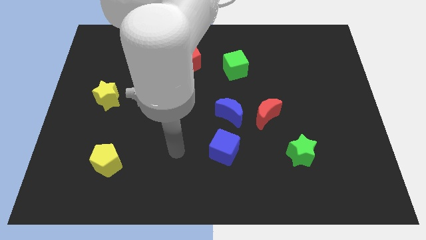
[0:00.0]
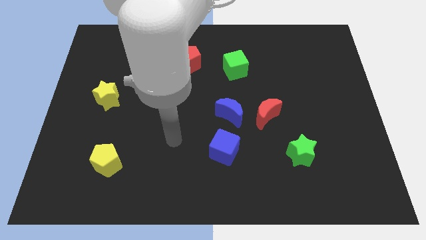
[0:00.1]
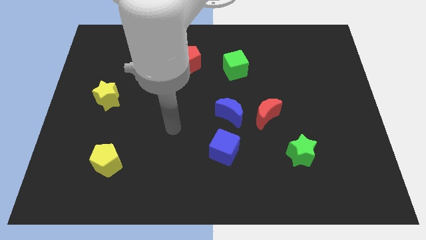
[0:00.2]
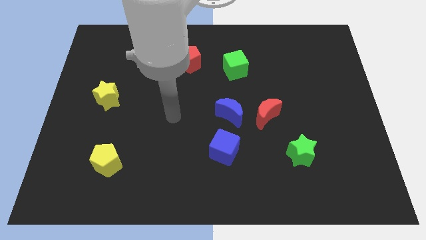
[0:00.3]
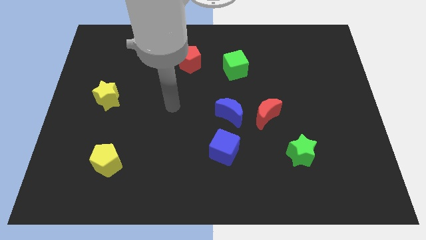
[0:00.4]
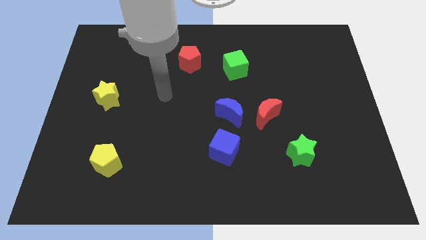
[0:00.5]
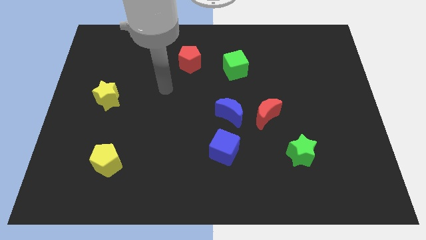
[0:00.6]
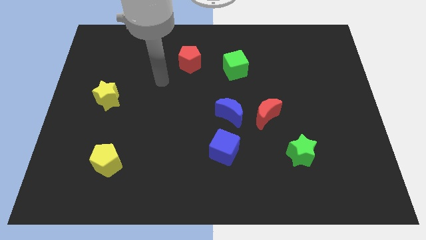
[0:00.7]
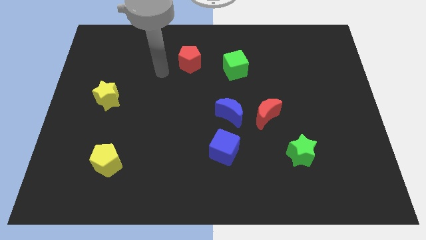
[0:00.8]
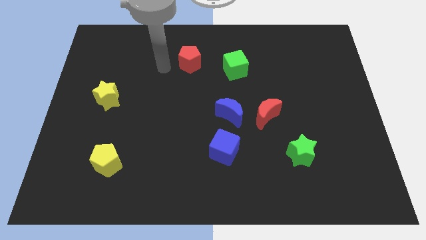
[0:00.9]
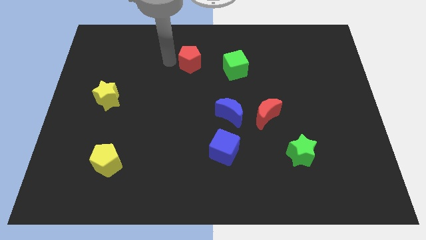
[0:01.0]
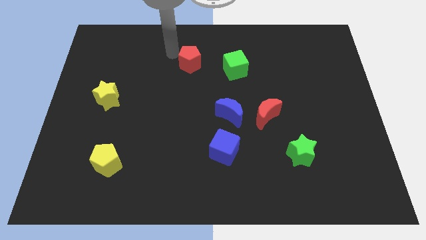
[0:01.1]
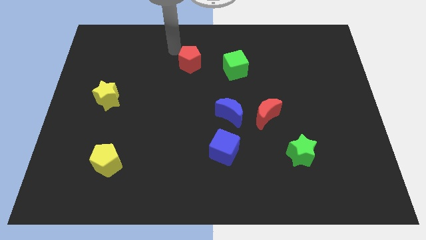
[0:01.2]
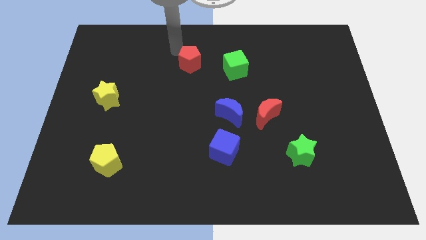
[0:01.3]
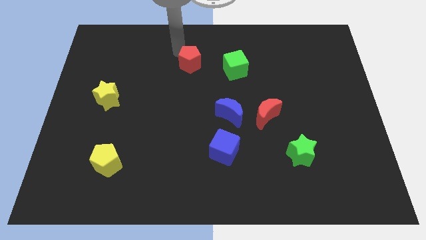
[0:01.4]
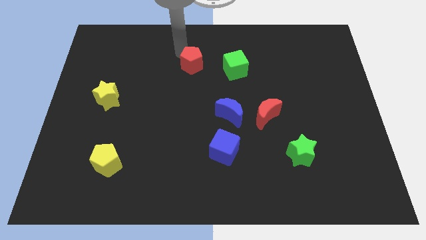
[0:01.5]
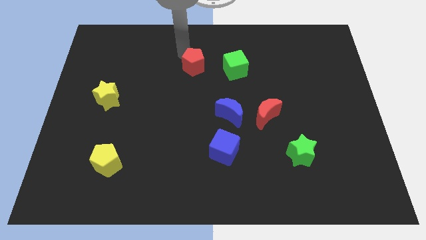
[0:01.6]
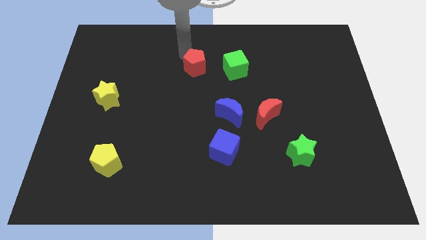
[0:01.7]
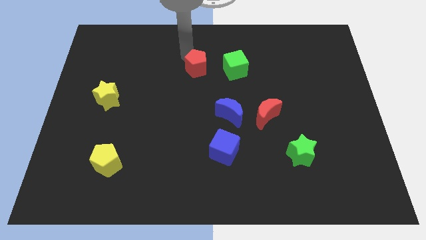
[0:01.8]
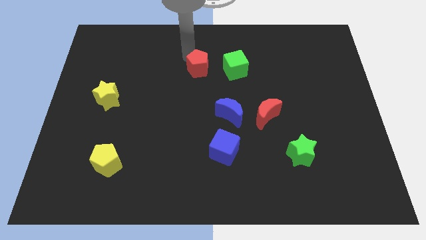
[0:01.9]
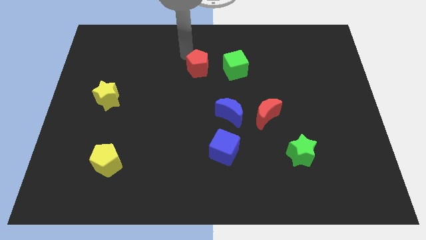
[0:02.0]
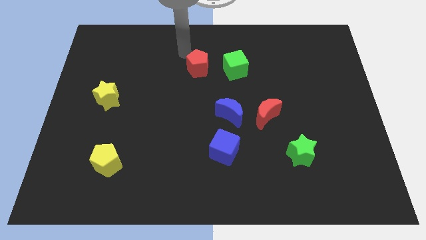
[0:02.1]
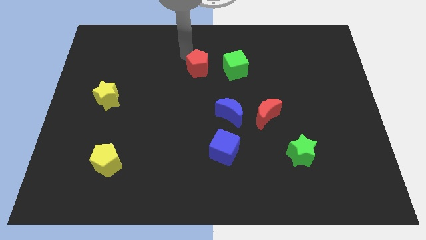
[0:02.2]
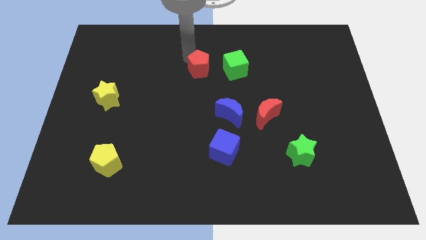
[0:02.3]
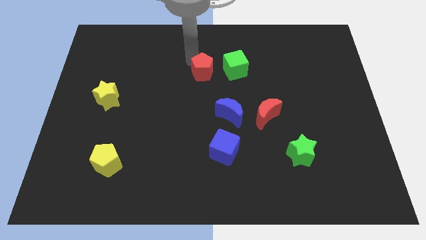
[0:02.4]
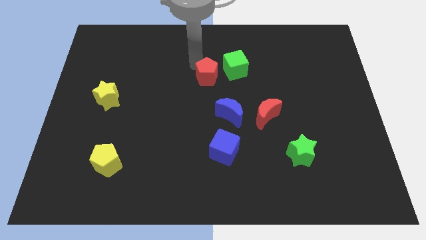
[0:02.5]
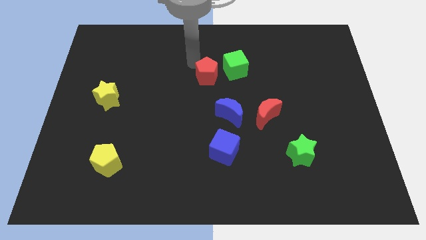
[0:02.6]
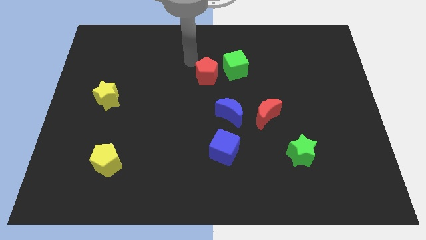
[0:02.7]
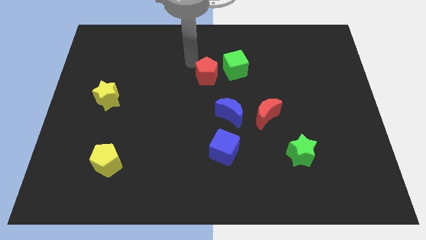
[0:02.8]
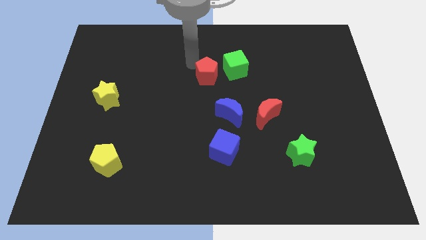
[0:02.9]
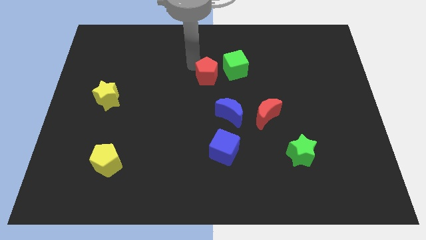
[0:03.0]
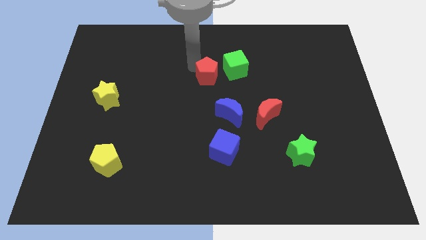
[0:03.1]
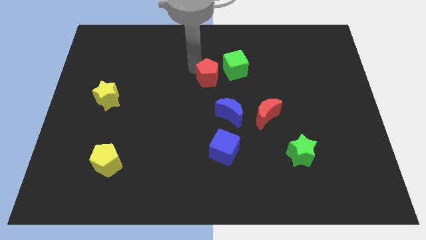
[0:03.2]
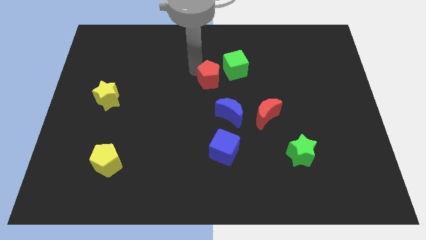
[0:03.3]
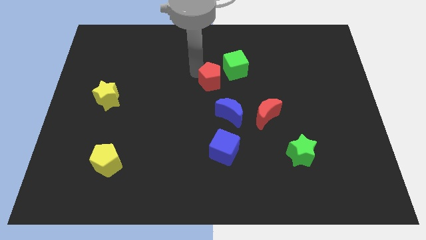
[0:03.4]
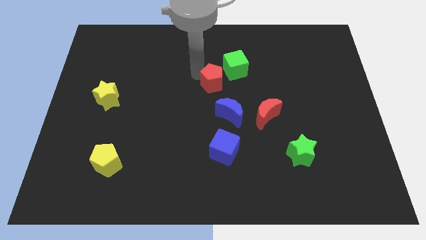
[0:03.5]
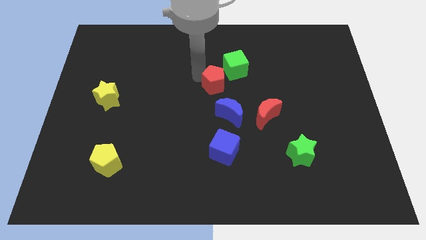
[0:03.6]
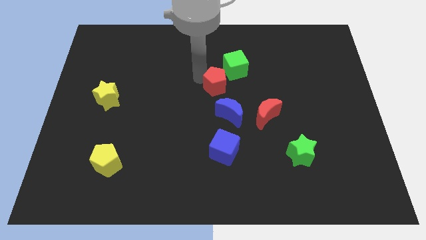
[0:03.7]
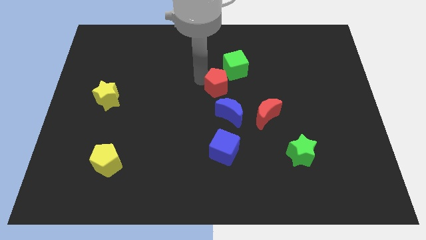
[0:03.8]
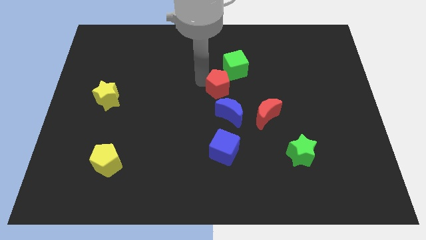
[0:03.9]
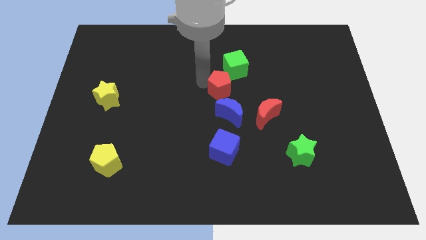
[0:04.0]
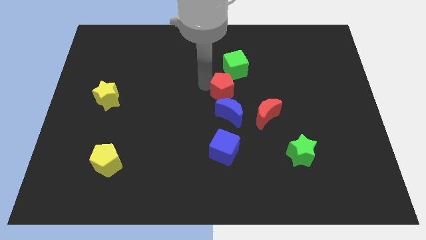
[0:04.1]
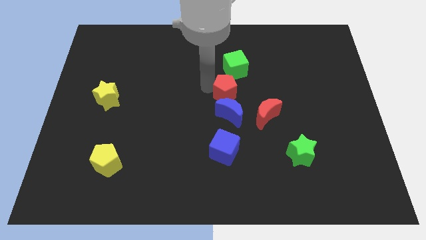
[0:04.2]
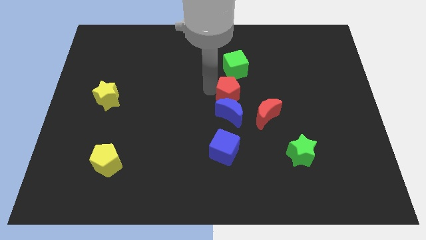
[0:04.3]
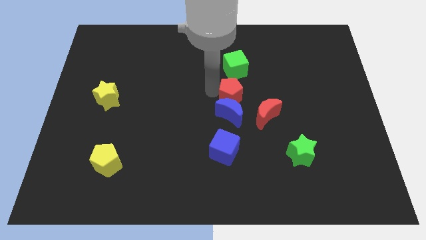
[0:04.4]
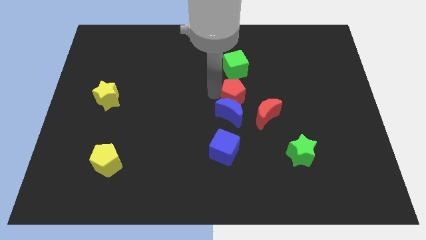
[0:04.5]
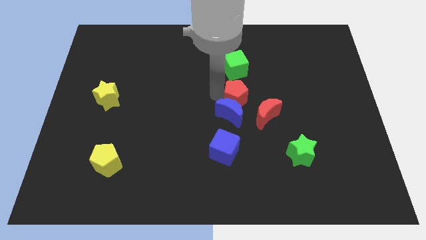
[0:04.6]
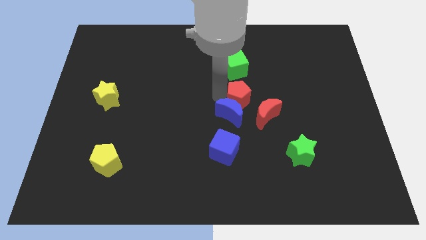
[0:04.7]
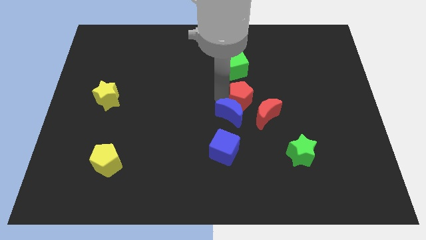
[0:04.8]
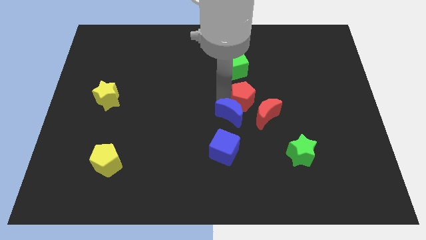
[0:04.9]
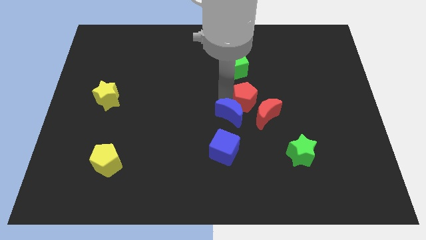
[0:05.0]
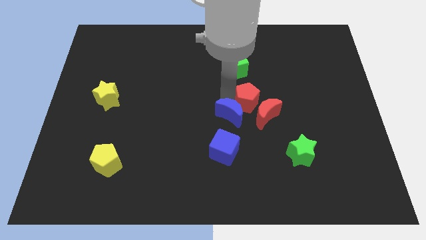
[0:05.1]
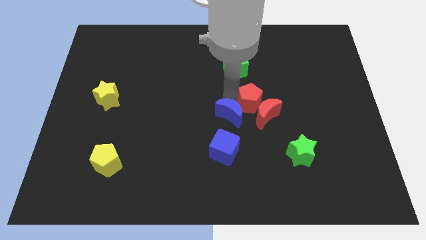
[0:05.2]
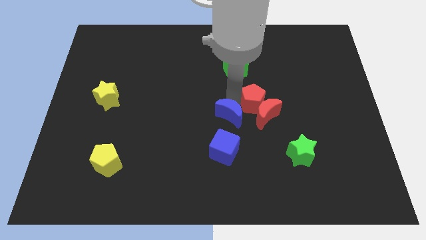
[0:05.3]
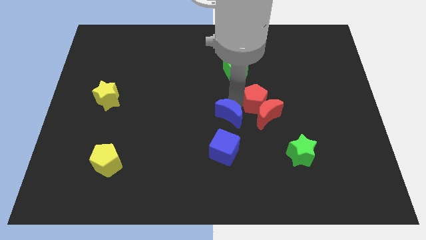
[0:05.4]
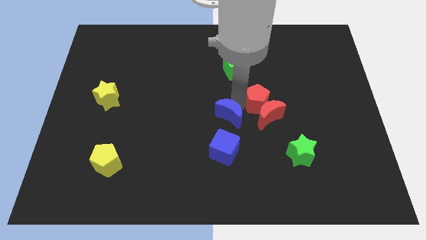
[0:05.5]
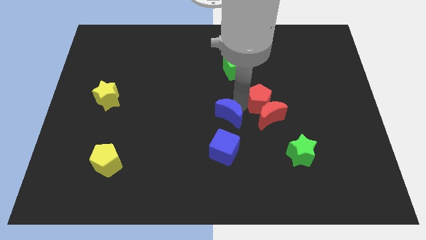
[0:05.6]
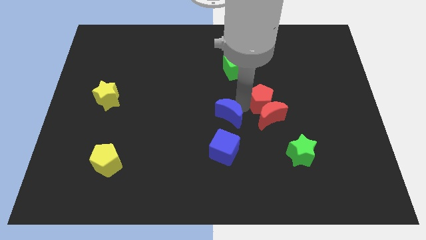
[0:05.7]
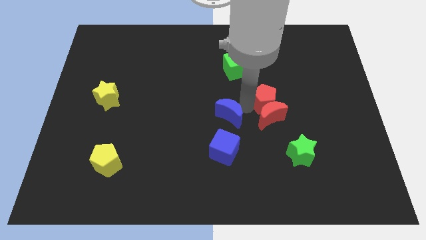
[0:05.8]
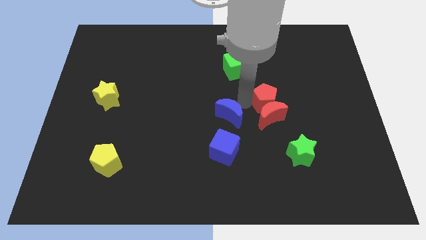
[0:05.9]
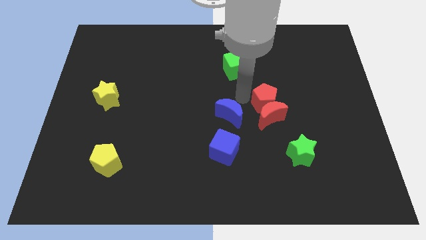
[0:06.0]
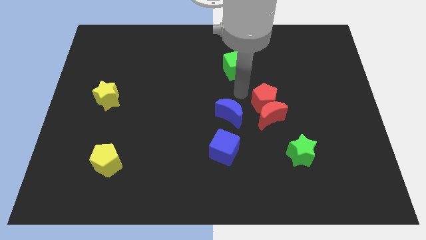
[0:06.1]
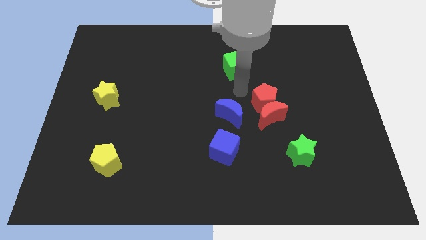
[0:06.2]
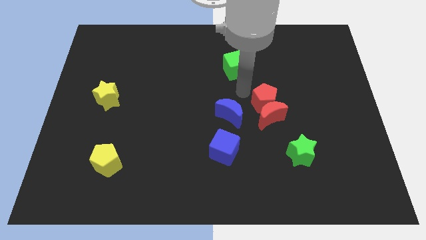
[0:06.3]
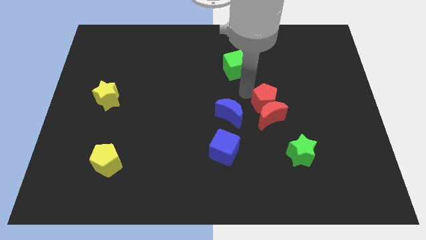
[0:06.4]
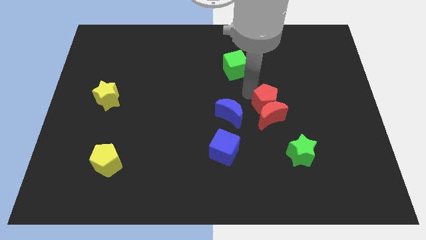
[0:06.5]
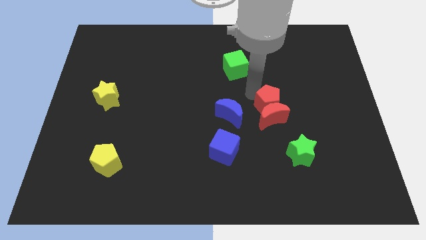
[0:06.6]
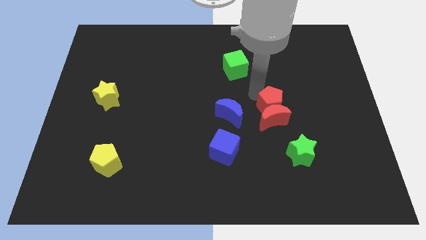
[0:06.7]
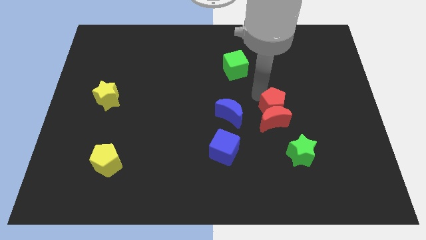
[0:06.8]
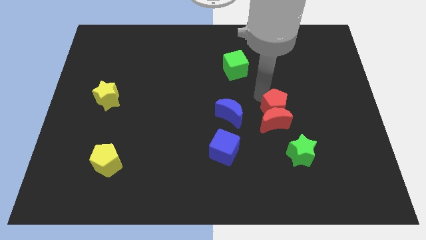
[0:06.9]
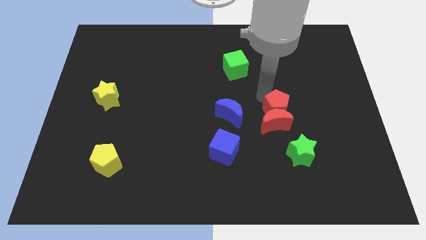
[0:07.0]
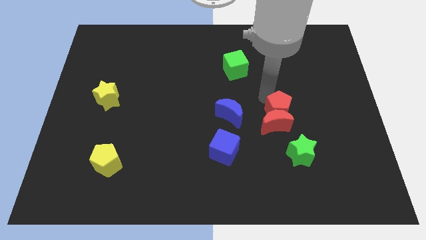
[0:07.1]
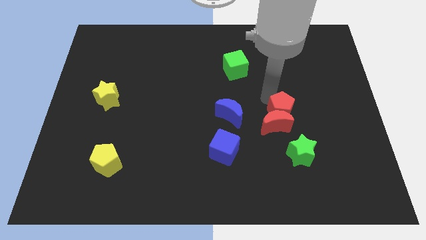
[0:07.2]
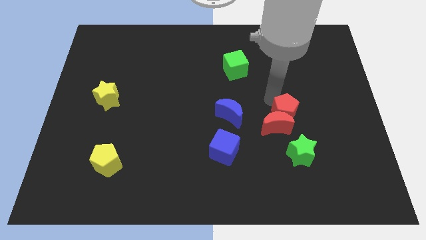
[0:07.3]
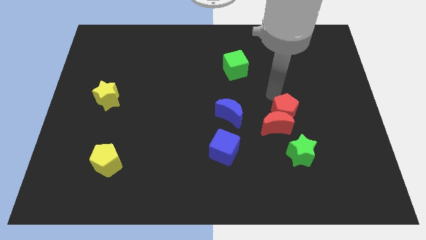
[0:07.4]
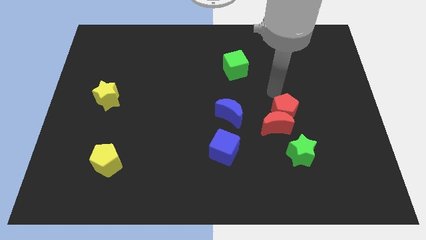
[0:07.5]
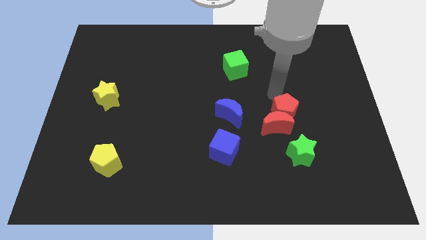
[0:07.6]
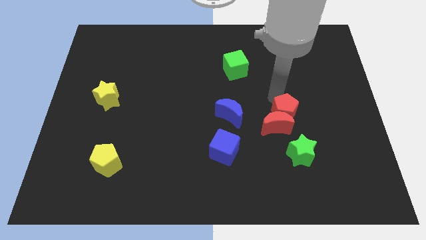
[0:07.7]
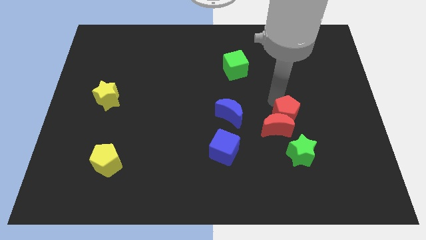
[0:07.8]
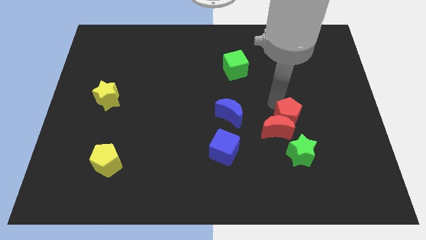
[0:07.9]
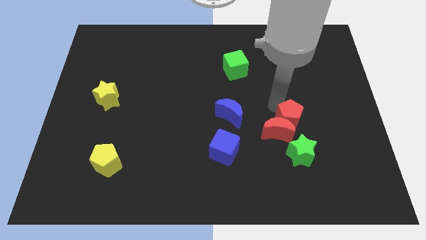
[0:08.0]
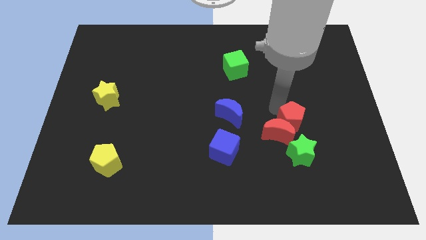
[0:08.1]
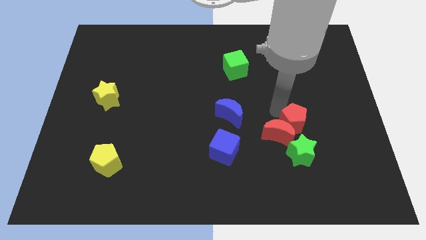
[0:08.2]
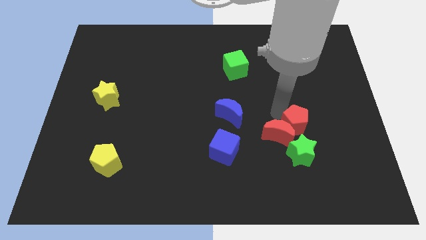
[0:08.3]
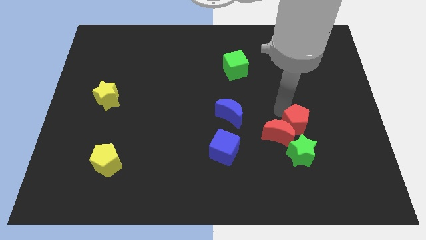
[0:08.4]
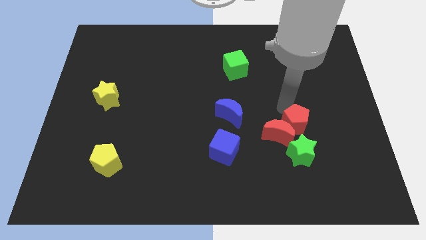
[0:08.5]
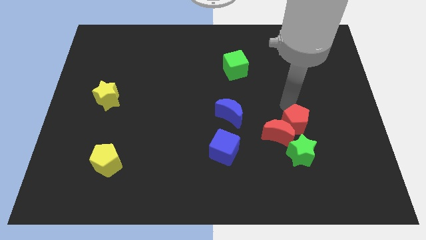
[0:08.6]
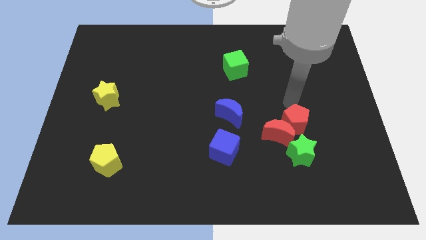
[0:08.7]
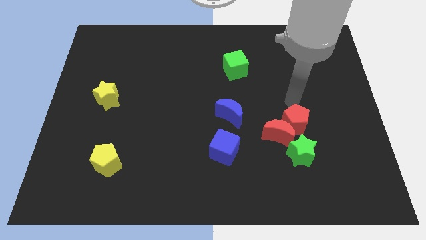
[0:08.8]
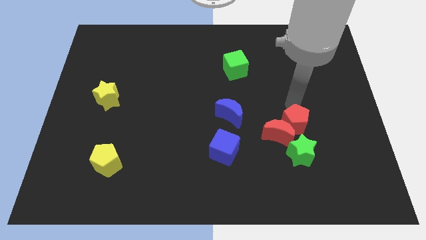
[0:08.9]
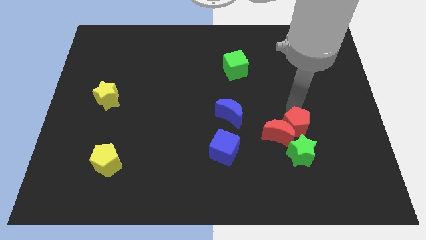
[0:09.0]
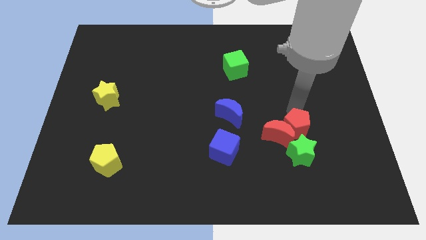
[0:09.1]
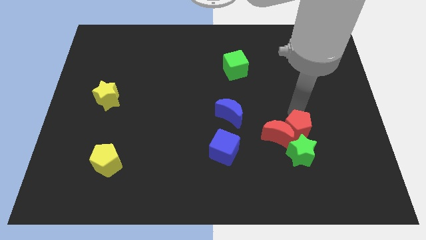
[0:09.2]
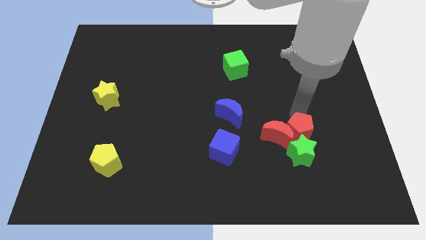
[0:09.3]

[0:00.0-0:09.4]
slide the red pentagon close to the green star
